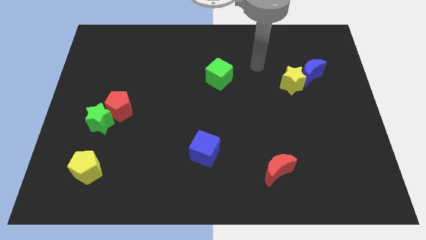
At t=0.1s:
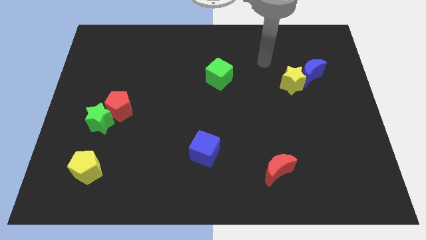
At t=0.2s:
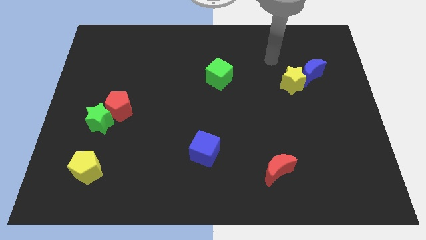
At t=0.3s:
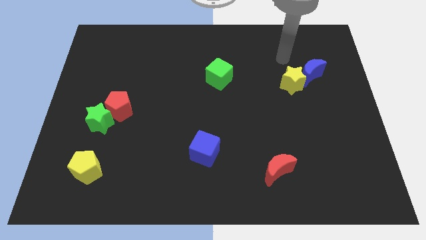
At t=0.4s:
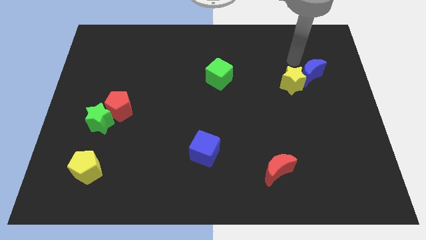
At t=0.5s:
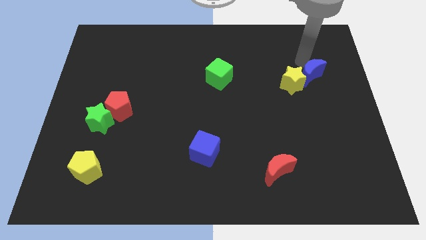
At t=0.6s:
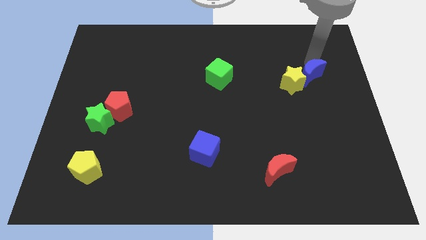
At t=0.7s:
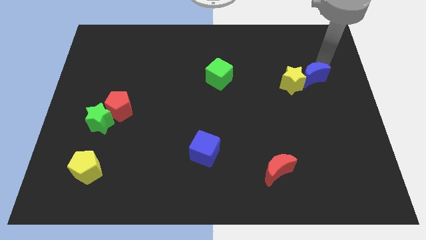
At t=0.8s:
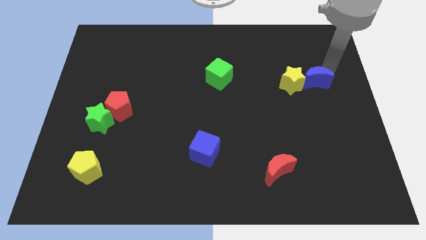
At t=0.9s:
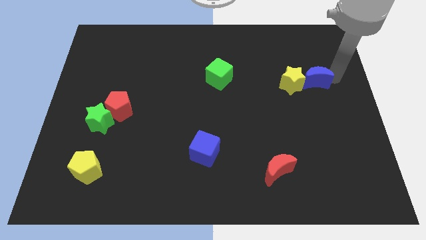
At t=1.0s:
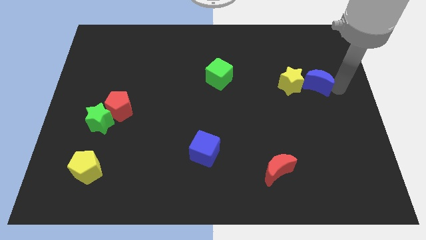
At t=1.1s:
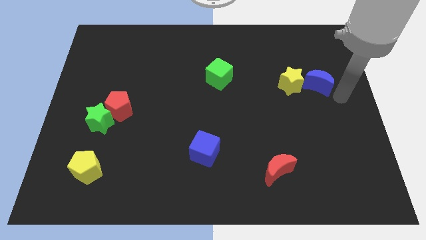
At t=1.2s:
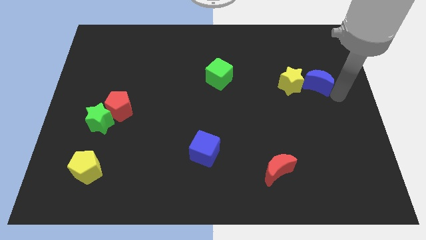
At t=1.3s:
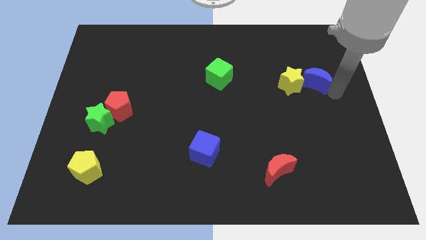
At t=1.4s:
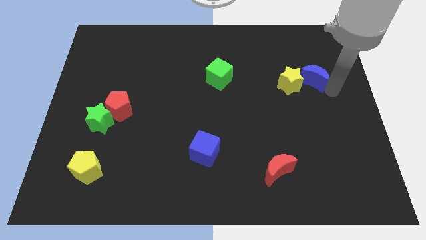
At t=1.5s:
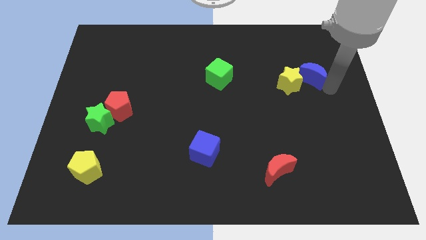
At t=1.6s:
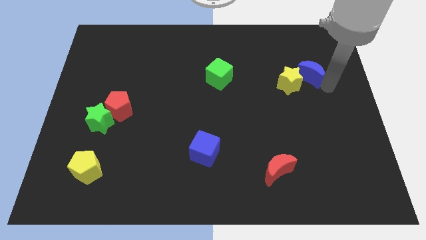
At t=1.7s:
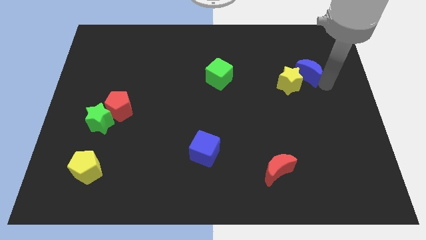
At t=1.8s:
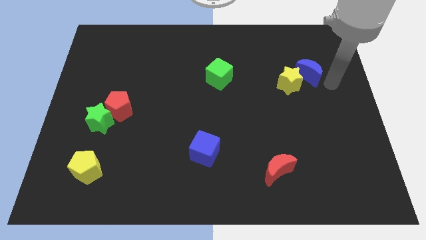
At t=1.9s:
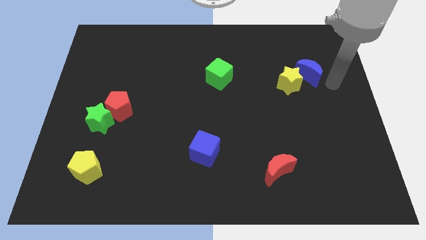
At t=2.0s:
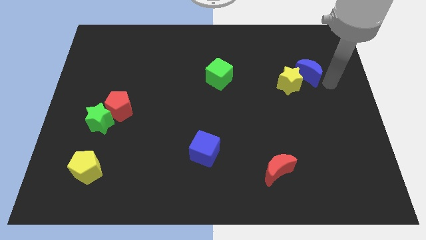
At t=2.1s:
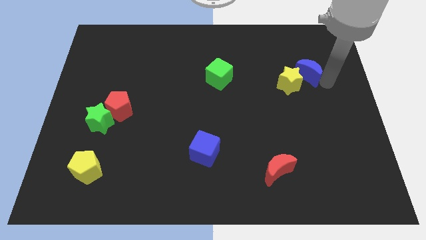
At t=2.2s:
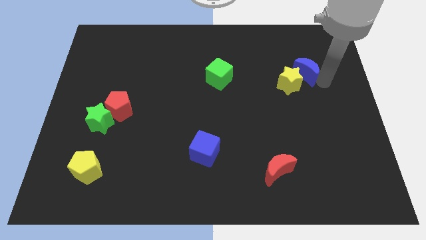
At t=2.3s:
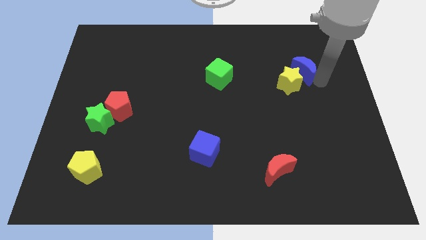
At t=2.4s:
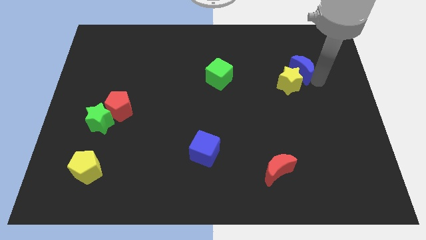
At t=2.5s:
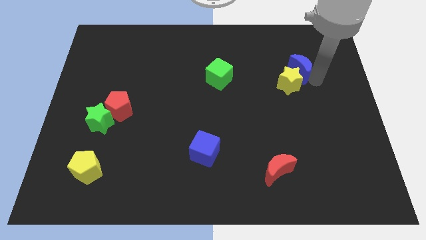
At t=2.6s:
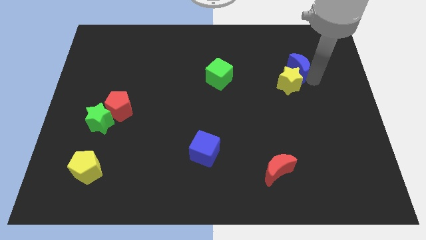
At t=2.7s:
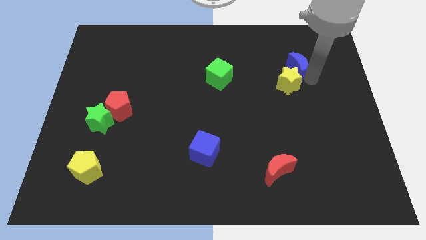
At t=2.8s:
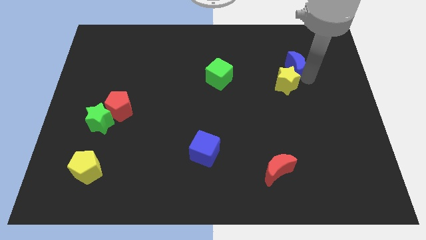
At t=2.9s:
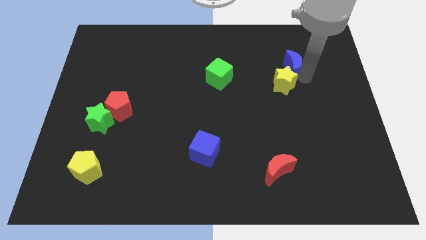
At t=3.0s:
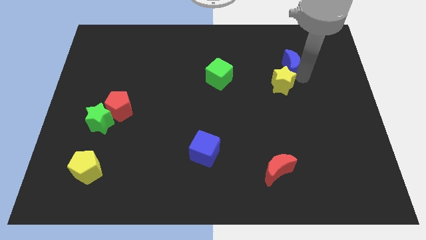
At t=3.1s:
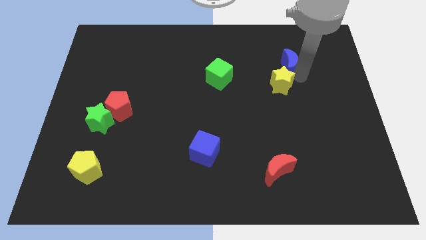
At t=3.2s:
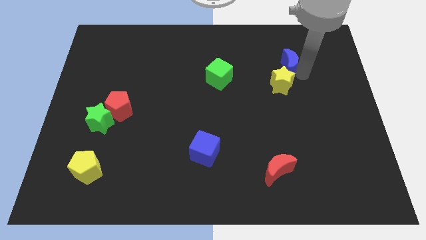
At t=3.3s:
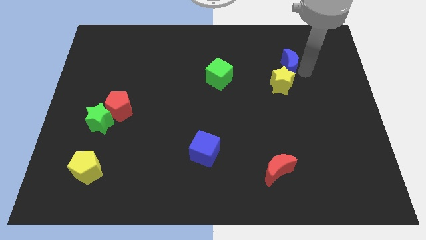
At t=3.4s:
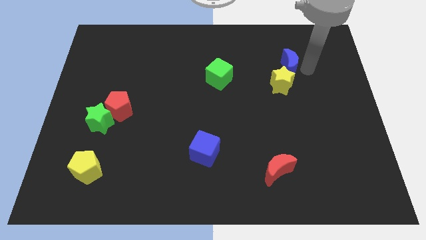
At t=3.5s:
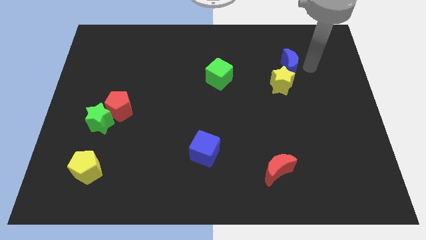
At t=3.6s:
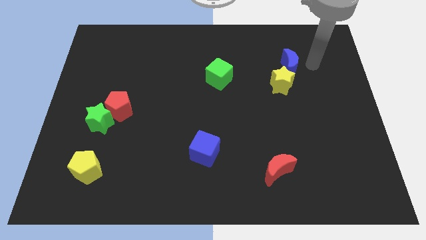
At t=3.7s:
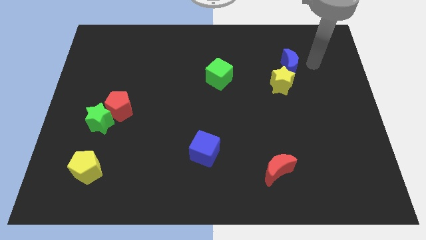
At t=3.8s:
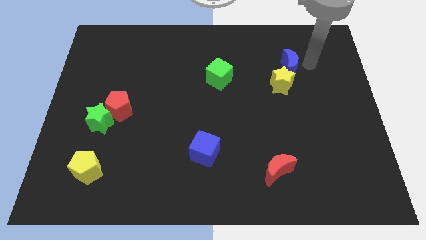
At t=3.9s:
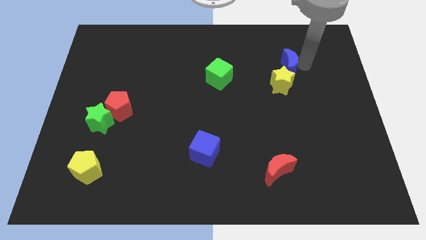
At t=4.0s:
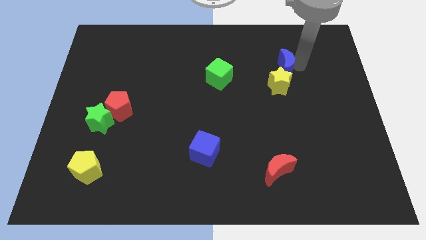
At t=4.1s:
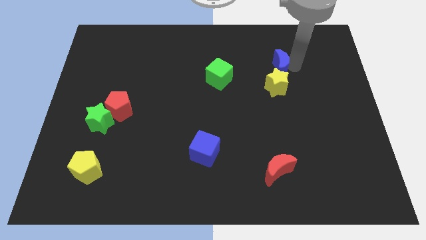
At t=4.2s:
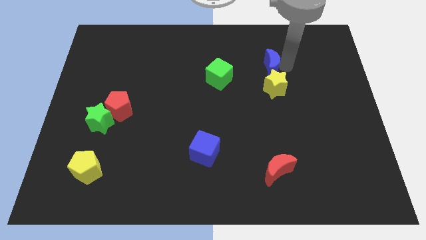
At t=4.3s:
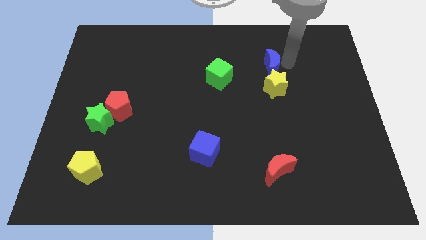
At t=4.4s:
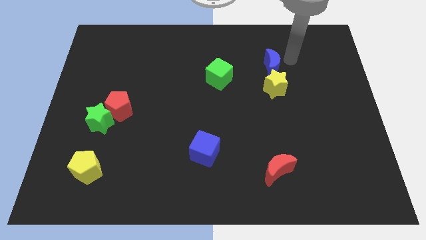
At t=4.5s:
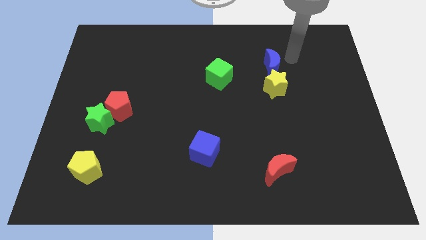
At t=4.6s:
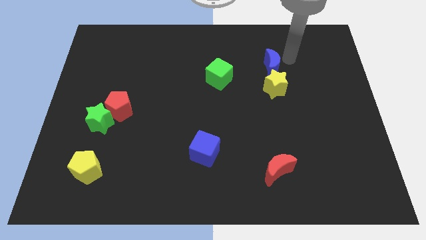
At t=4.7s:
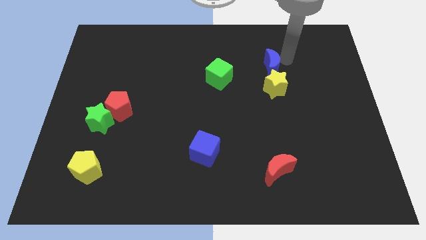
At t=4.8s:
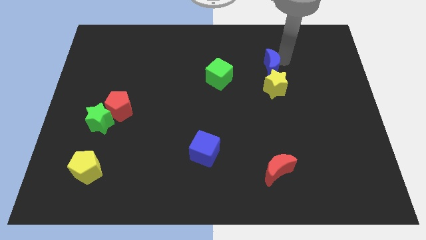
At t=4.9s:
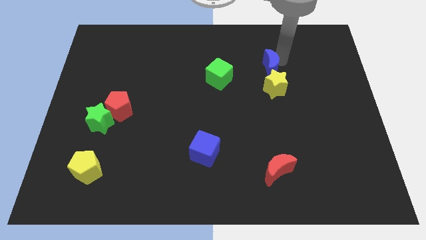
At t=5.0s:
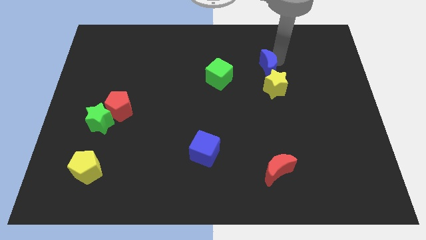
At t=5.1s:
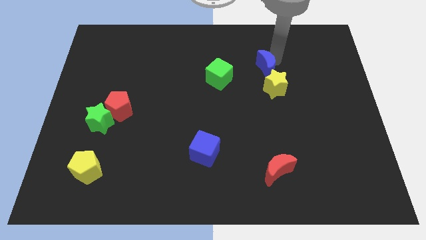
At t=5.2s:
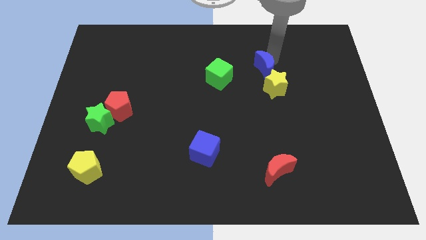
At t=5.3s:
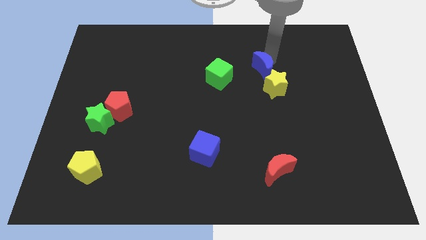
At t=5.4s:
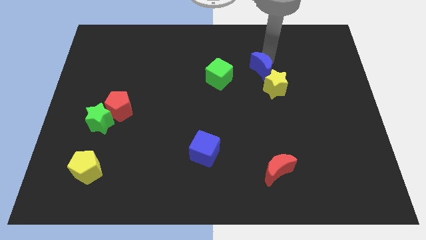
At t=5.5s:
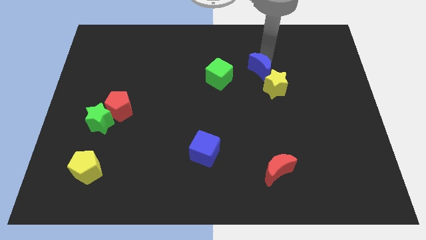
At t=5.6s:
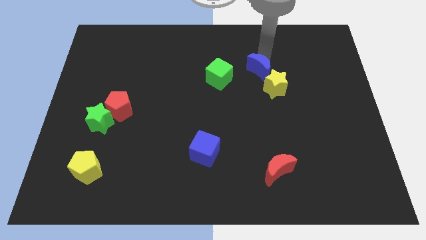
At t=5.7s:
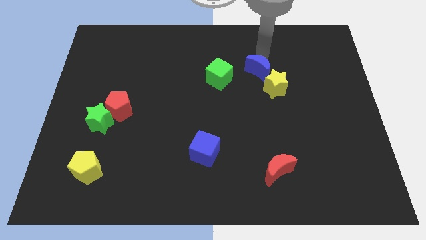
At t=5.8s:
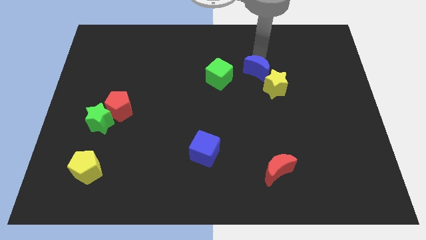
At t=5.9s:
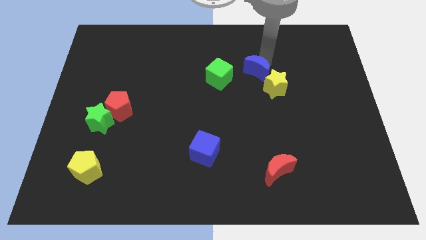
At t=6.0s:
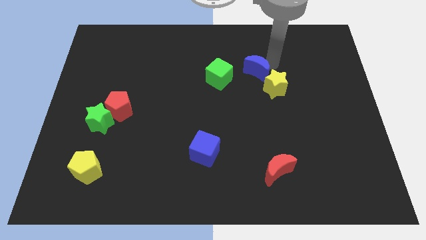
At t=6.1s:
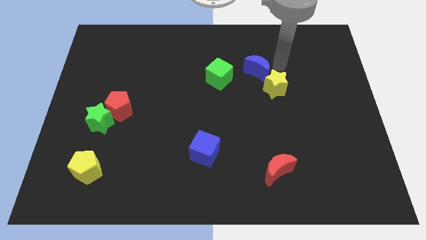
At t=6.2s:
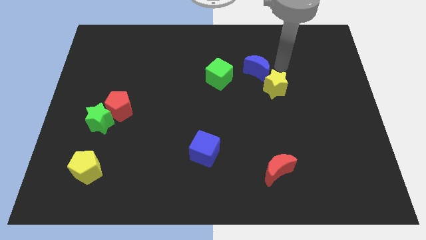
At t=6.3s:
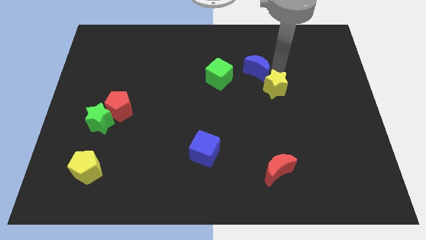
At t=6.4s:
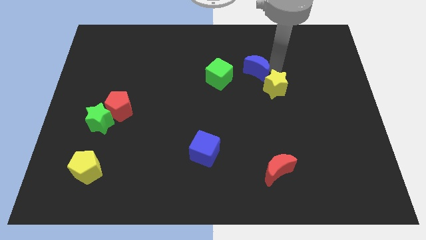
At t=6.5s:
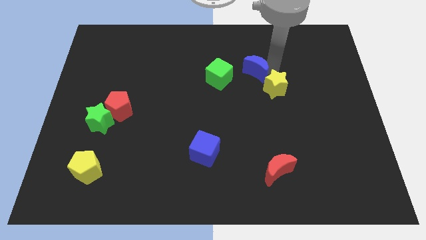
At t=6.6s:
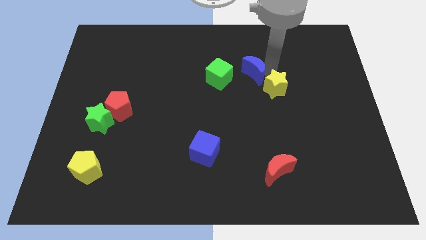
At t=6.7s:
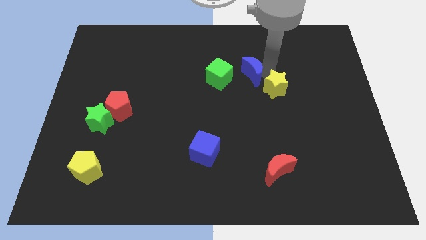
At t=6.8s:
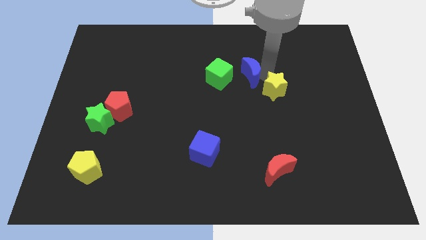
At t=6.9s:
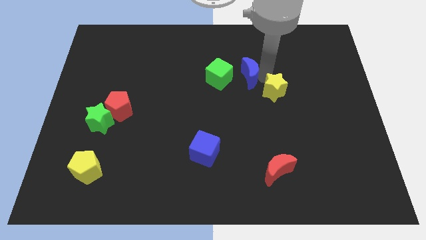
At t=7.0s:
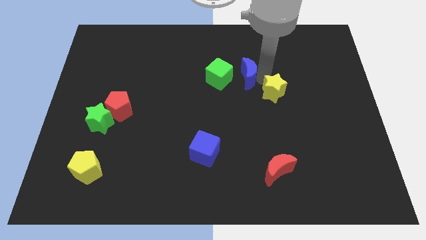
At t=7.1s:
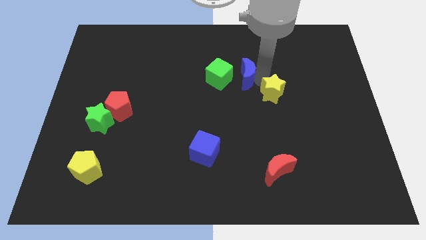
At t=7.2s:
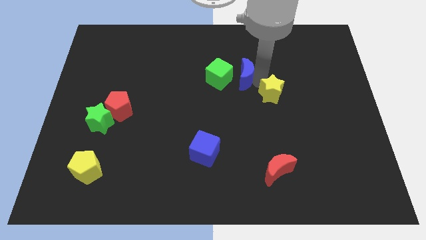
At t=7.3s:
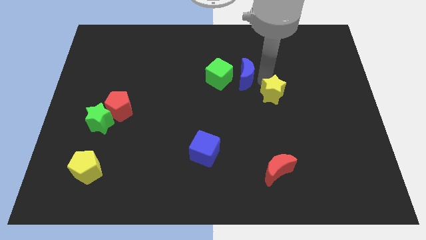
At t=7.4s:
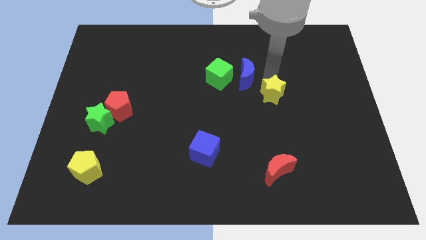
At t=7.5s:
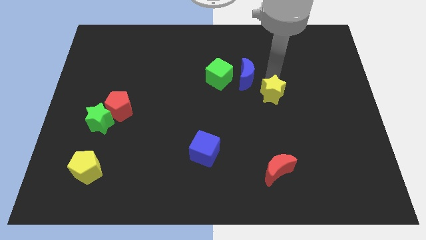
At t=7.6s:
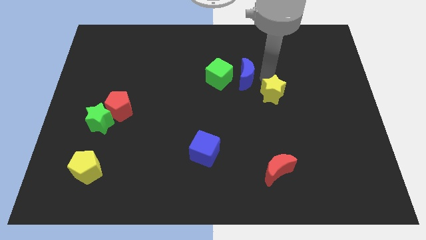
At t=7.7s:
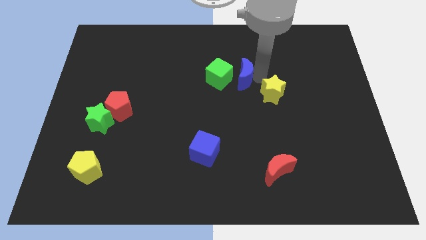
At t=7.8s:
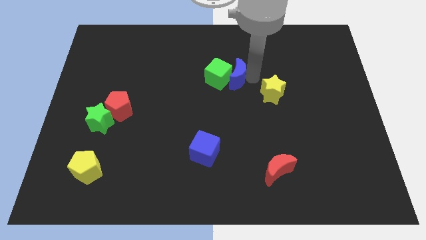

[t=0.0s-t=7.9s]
push the blue moon towards the green cube

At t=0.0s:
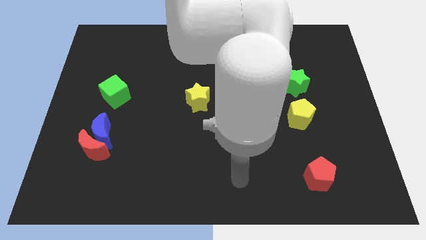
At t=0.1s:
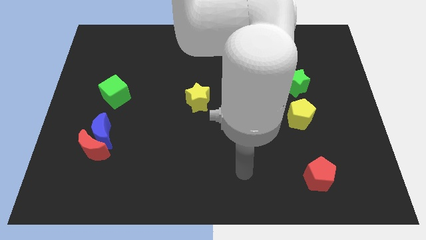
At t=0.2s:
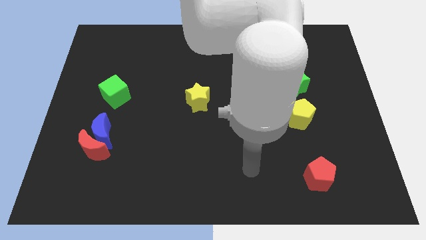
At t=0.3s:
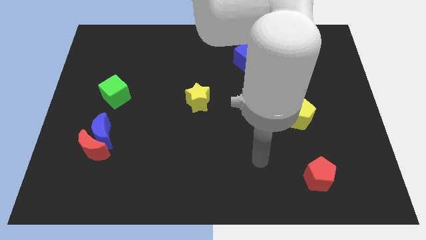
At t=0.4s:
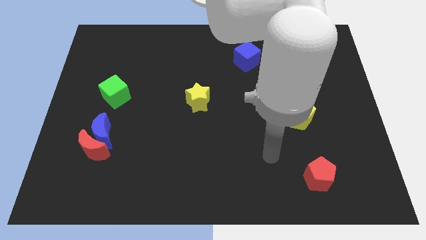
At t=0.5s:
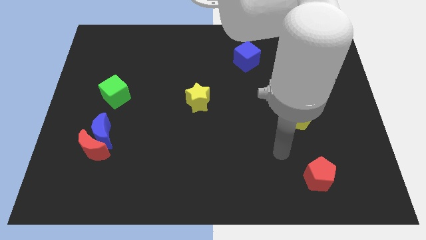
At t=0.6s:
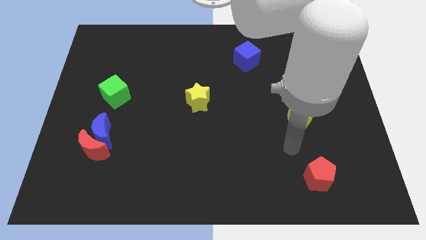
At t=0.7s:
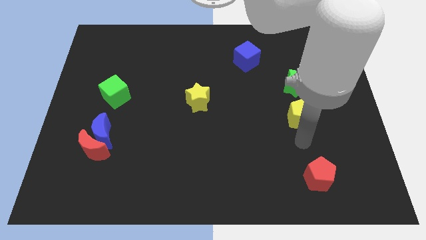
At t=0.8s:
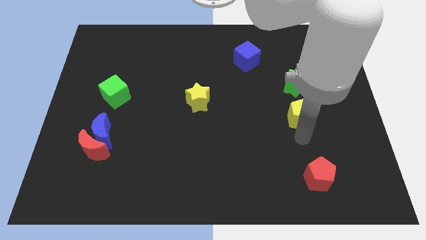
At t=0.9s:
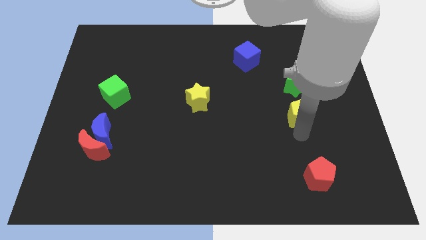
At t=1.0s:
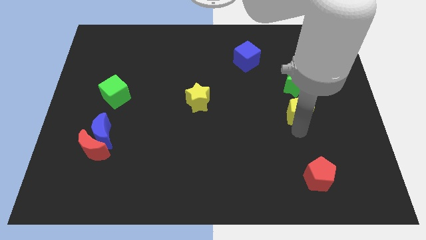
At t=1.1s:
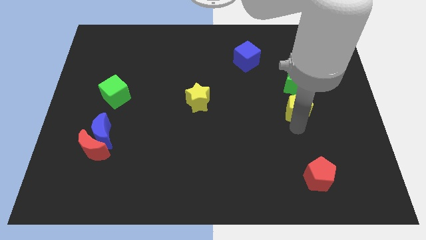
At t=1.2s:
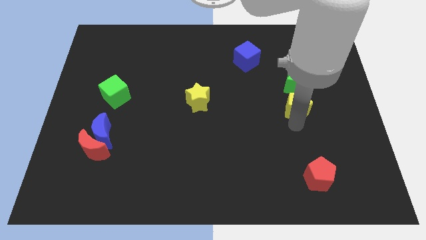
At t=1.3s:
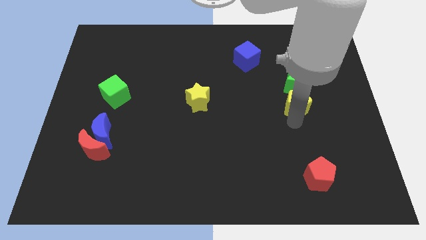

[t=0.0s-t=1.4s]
push the yellow pentagon close to the green star
